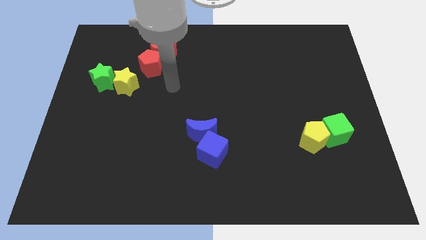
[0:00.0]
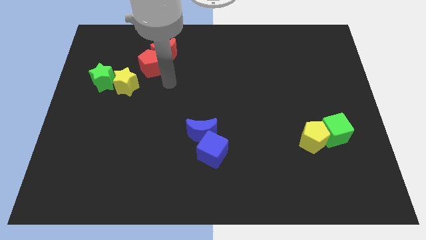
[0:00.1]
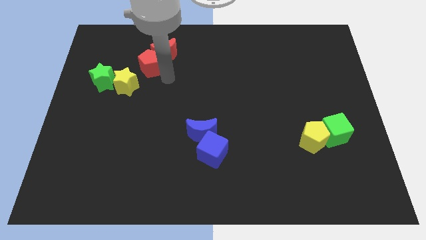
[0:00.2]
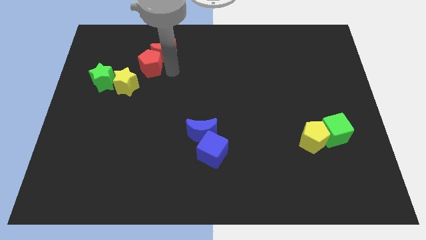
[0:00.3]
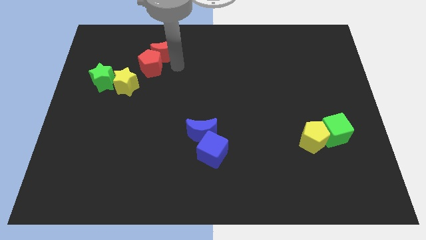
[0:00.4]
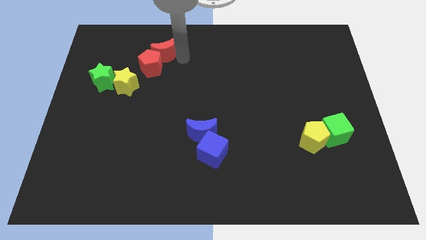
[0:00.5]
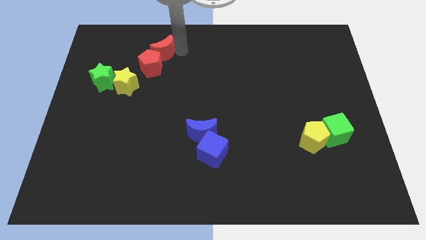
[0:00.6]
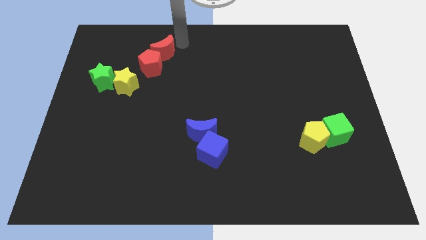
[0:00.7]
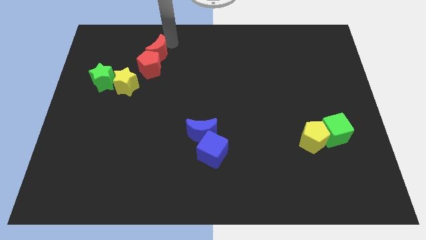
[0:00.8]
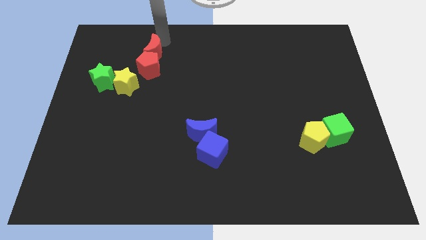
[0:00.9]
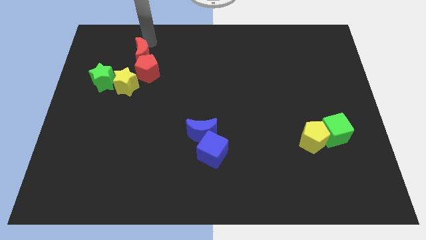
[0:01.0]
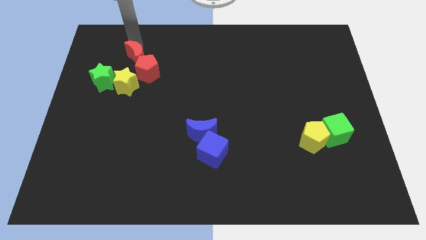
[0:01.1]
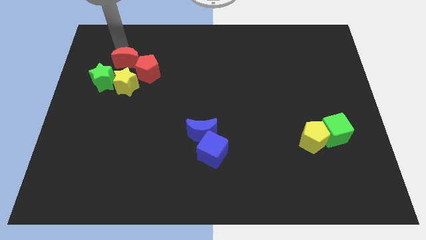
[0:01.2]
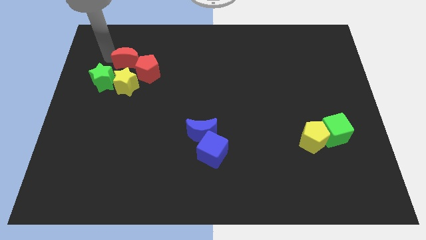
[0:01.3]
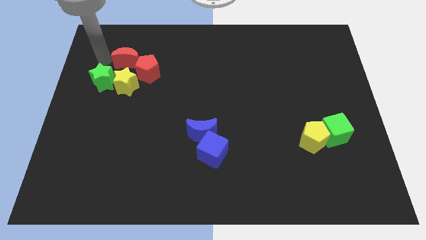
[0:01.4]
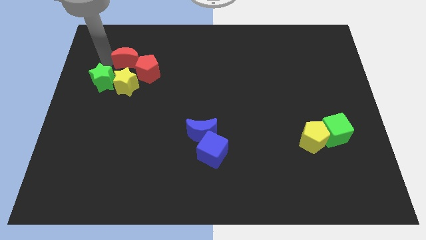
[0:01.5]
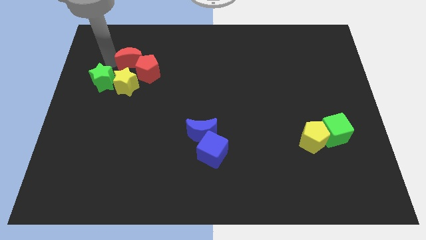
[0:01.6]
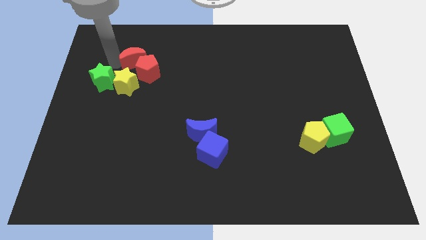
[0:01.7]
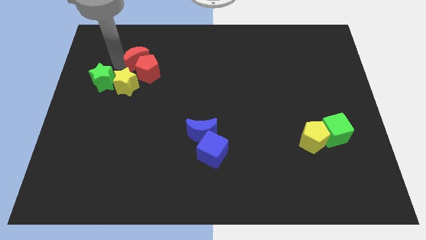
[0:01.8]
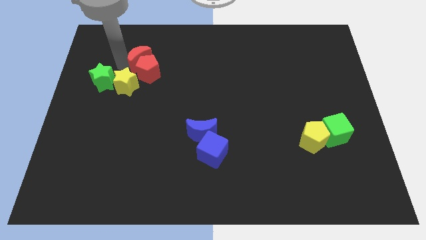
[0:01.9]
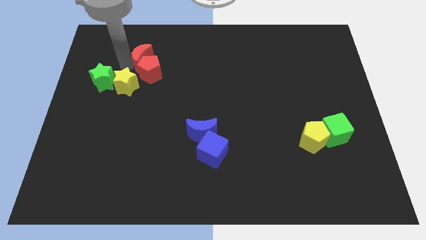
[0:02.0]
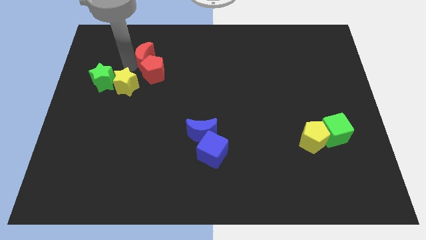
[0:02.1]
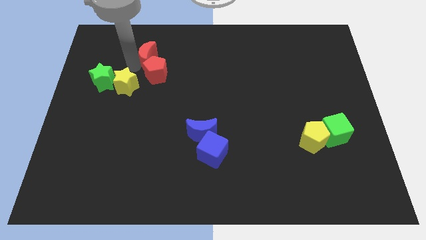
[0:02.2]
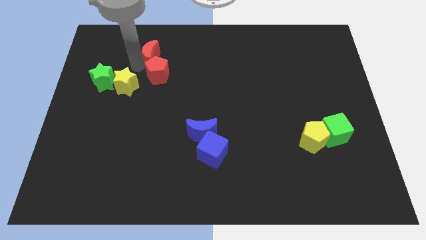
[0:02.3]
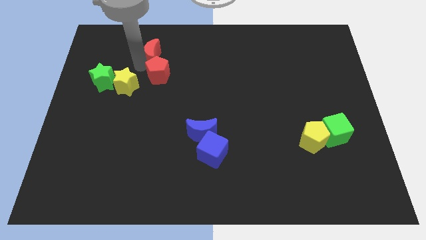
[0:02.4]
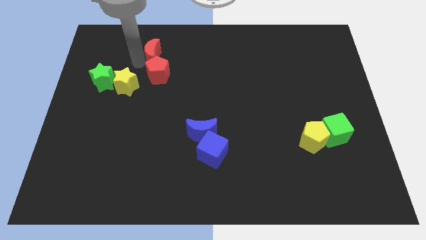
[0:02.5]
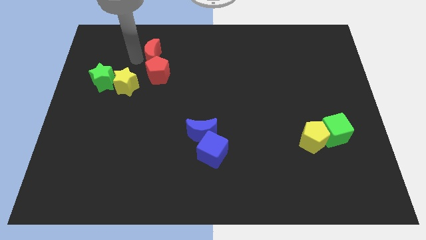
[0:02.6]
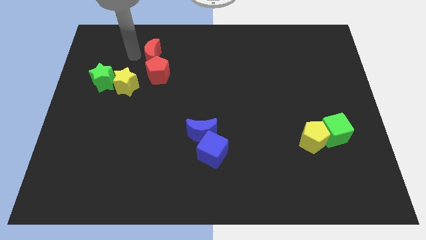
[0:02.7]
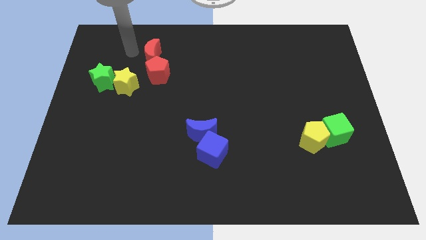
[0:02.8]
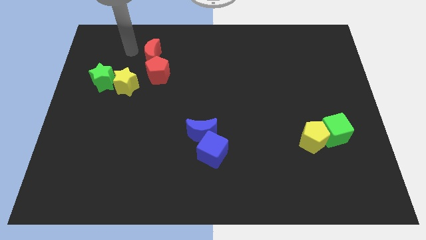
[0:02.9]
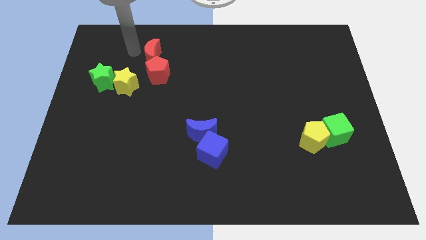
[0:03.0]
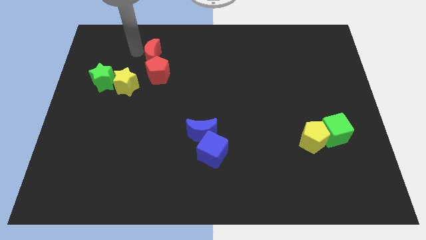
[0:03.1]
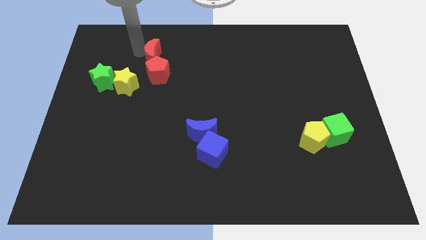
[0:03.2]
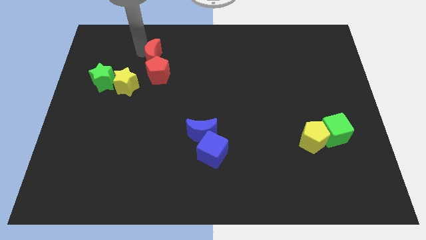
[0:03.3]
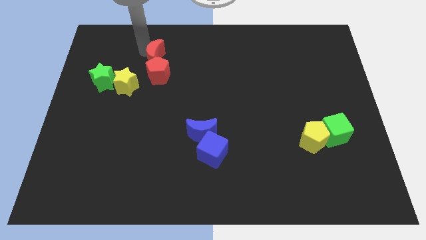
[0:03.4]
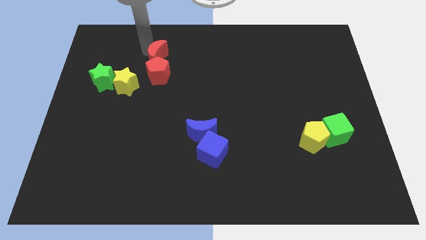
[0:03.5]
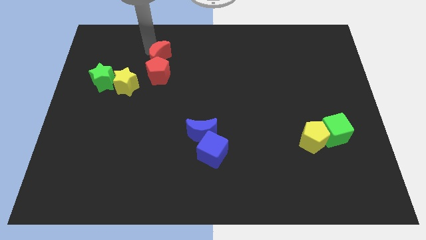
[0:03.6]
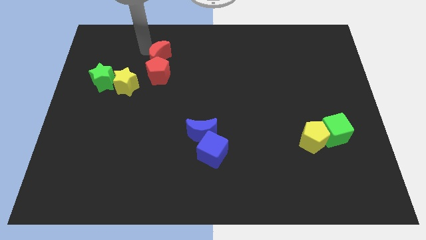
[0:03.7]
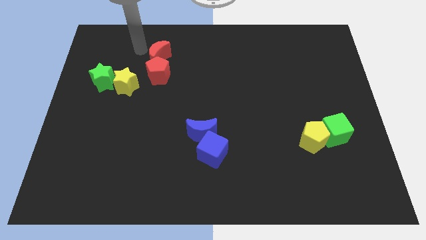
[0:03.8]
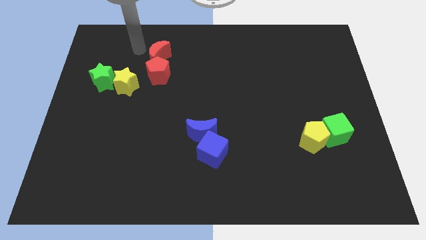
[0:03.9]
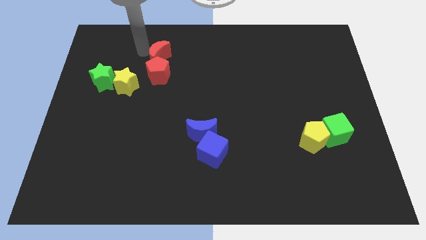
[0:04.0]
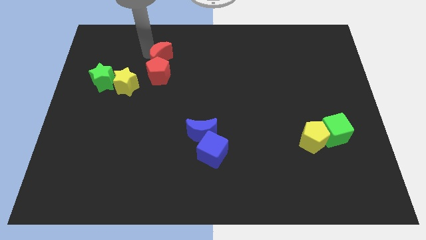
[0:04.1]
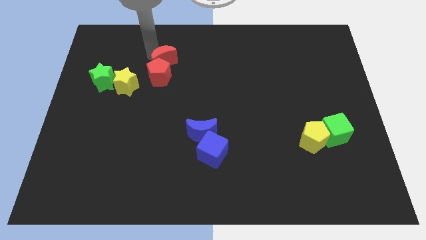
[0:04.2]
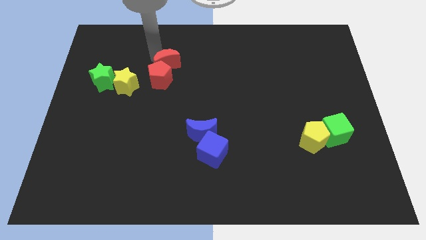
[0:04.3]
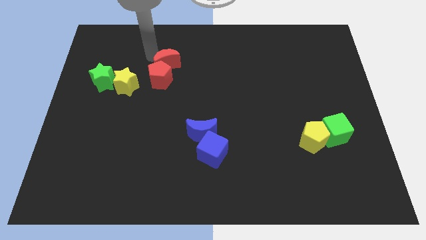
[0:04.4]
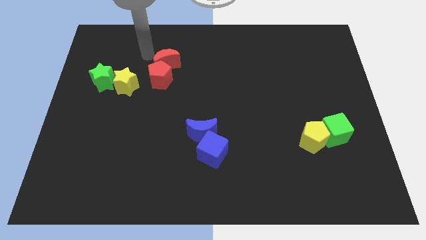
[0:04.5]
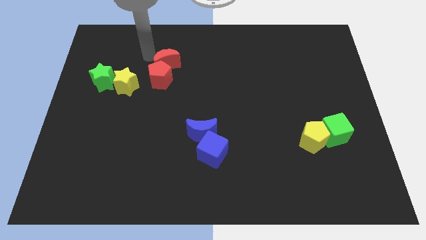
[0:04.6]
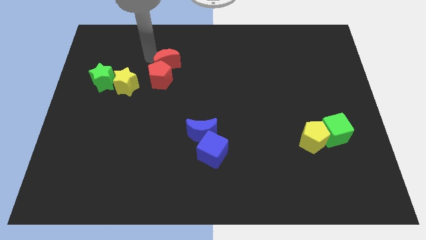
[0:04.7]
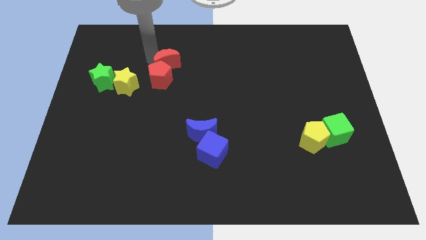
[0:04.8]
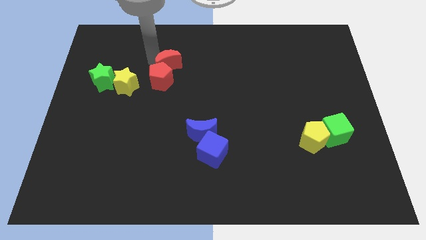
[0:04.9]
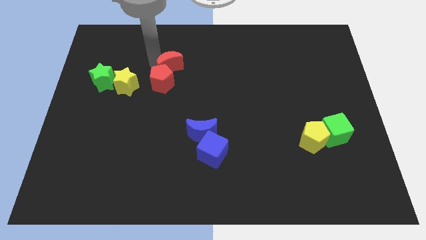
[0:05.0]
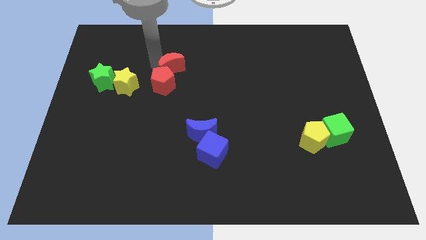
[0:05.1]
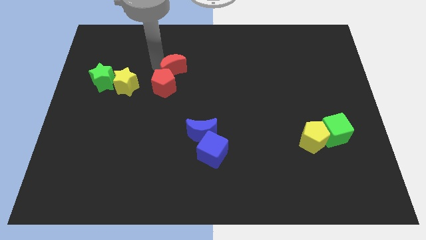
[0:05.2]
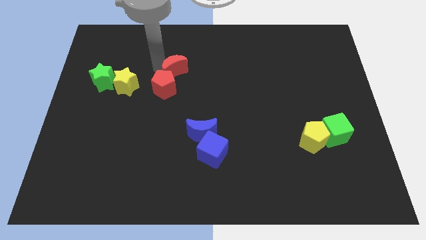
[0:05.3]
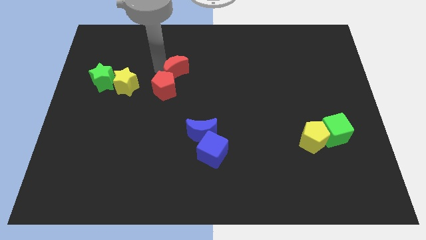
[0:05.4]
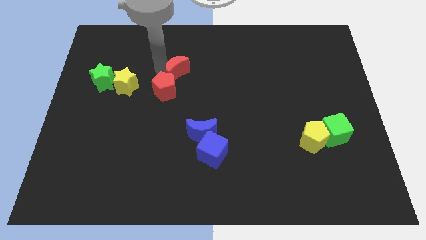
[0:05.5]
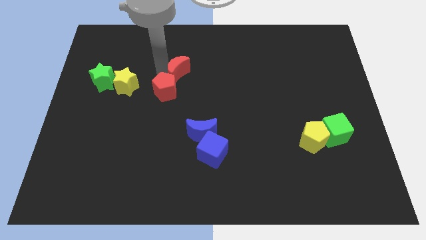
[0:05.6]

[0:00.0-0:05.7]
slightly push the red moon down and then right

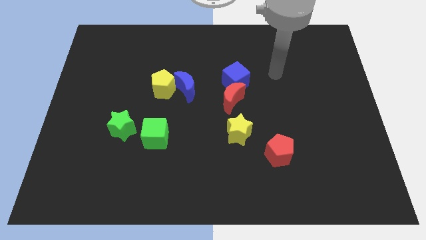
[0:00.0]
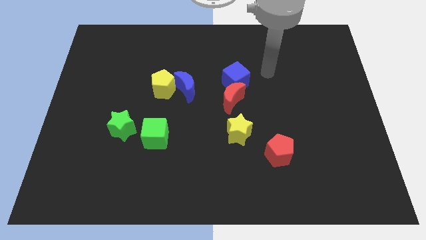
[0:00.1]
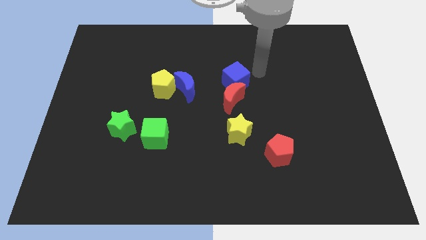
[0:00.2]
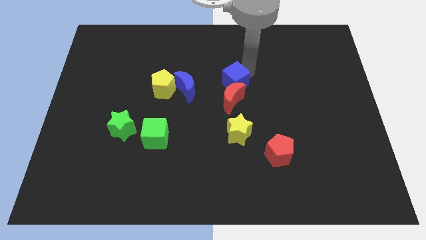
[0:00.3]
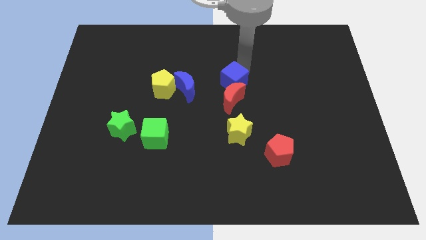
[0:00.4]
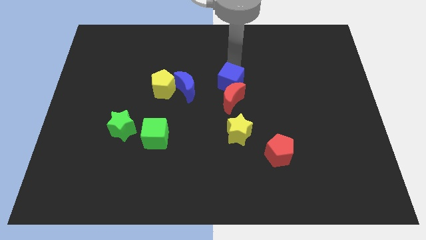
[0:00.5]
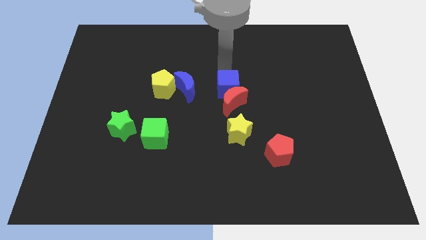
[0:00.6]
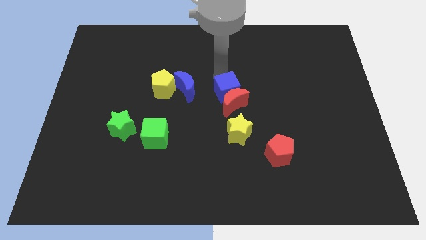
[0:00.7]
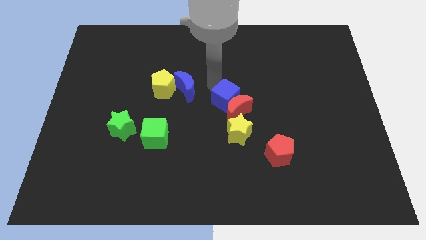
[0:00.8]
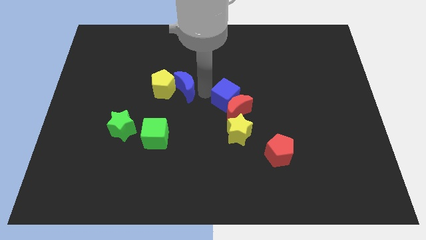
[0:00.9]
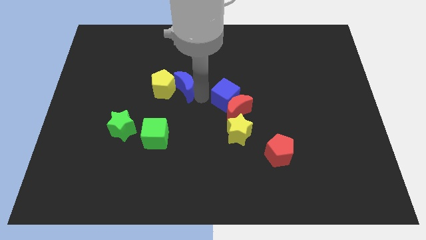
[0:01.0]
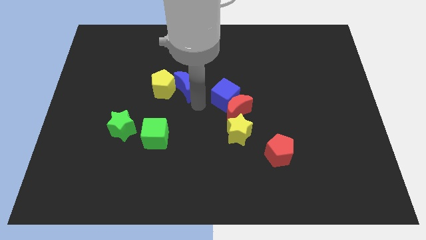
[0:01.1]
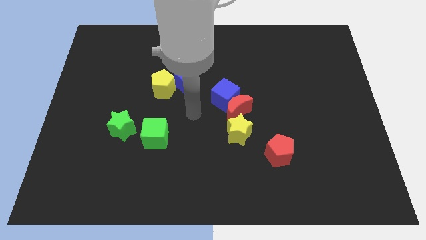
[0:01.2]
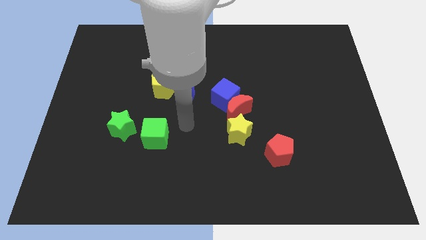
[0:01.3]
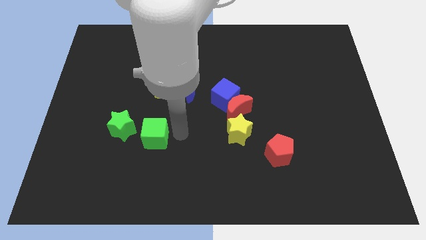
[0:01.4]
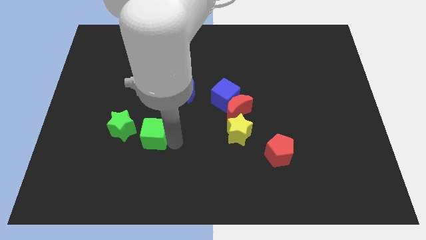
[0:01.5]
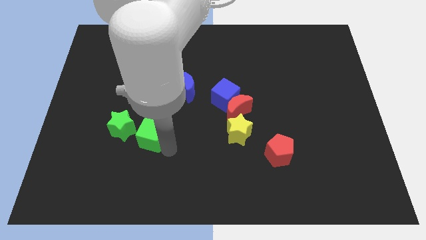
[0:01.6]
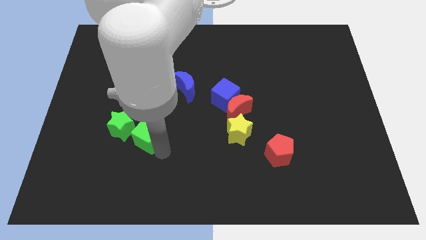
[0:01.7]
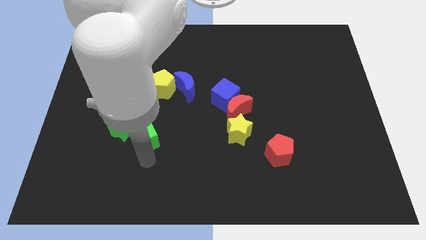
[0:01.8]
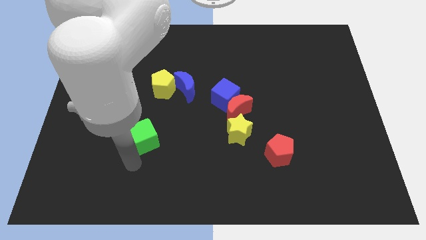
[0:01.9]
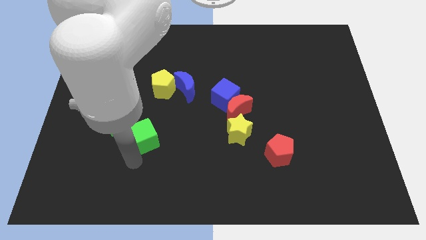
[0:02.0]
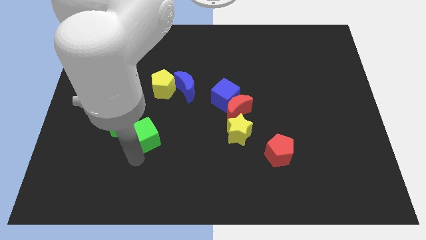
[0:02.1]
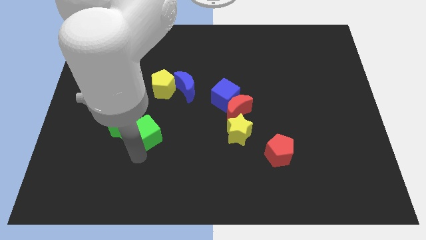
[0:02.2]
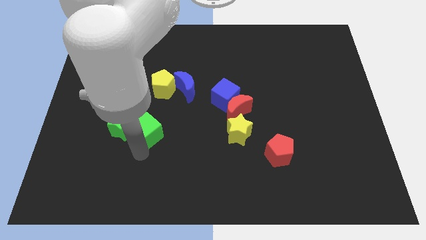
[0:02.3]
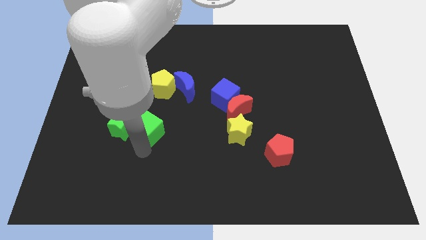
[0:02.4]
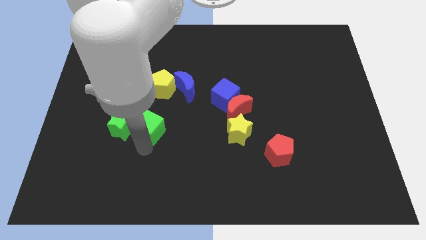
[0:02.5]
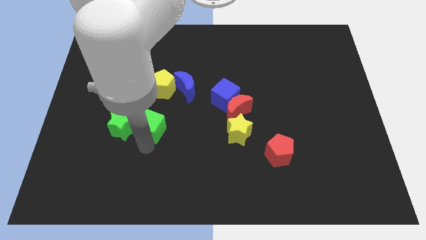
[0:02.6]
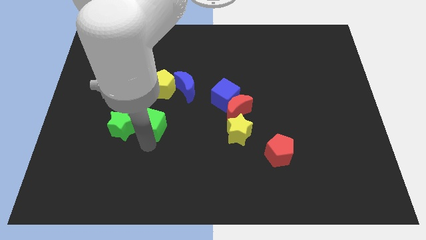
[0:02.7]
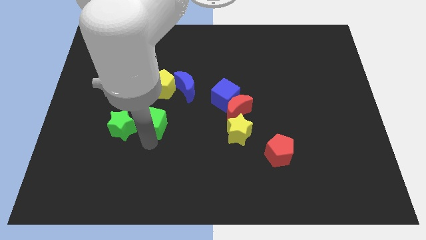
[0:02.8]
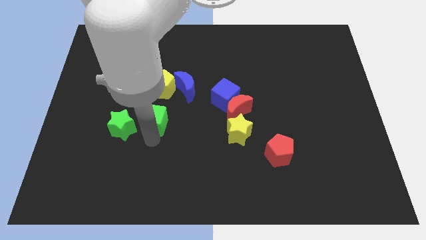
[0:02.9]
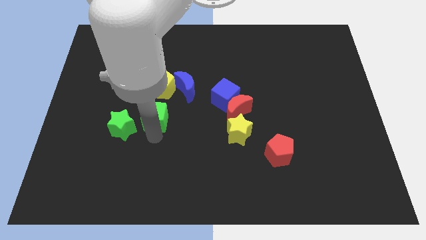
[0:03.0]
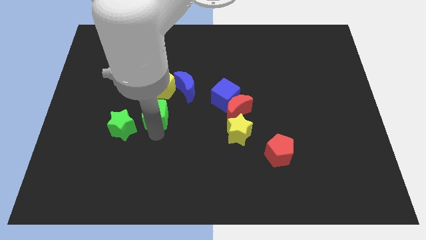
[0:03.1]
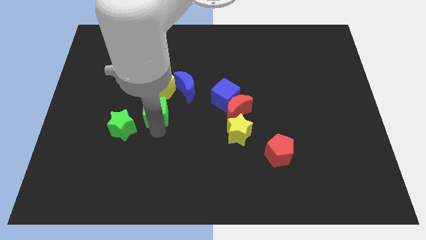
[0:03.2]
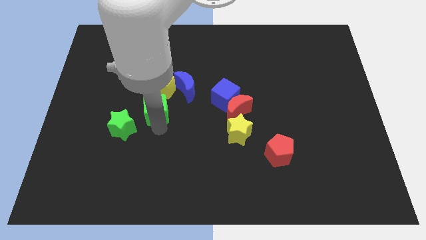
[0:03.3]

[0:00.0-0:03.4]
slide the green cube upwards a bit
